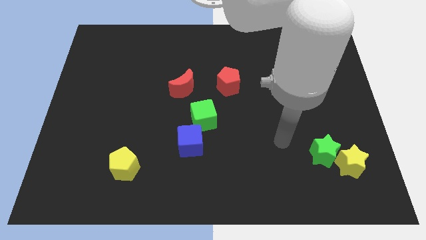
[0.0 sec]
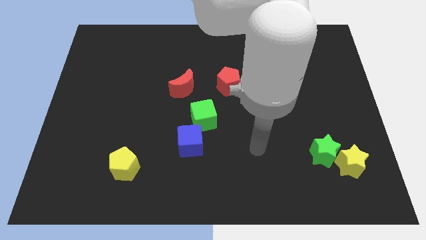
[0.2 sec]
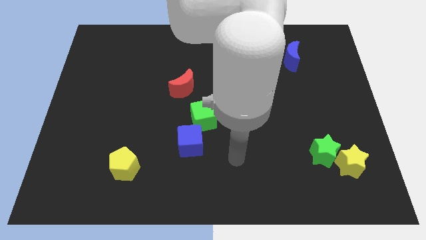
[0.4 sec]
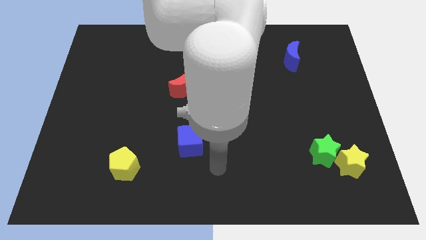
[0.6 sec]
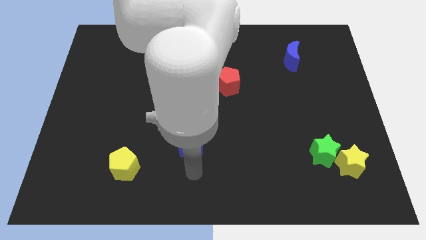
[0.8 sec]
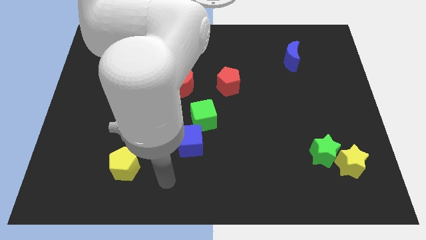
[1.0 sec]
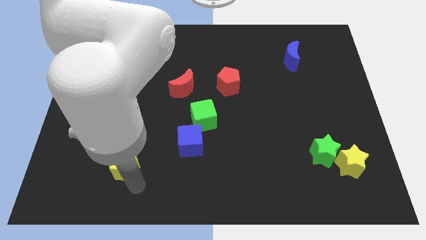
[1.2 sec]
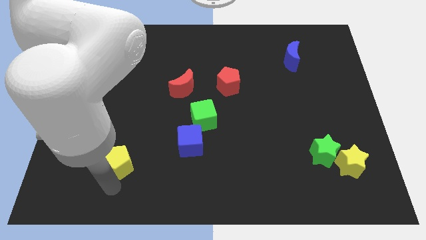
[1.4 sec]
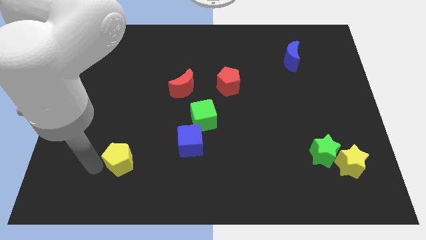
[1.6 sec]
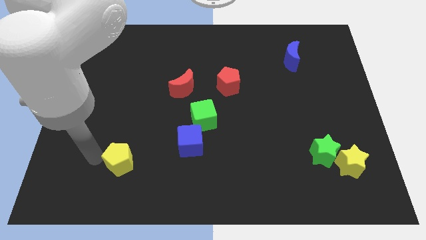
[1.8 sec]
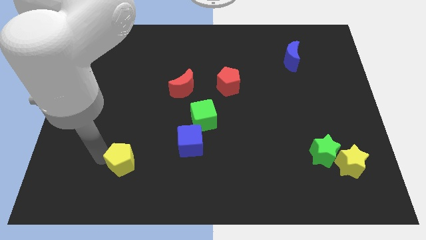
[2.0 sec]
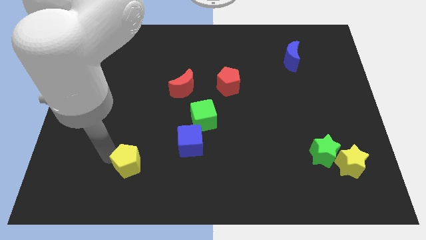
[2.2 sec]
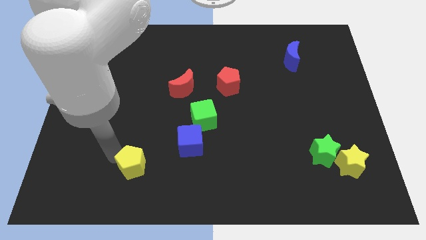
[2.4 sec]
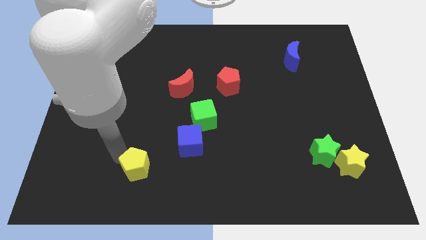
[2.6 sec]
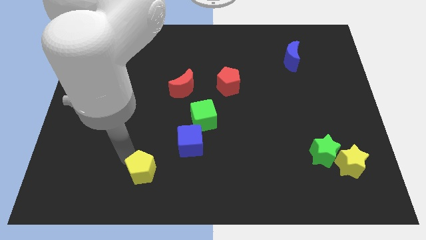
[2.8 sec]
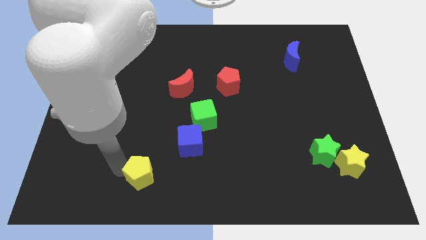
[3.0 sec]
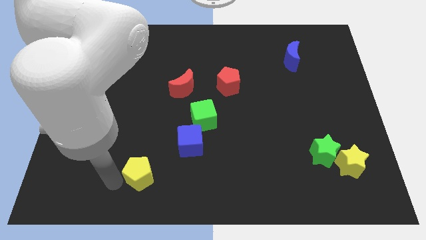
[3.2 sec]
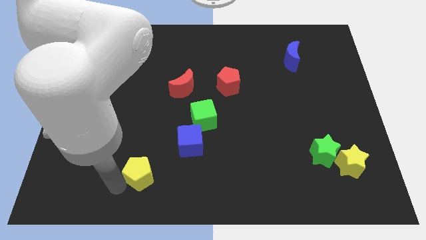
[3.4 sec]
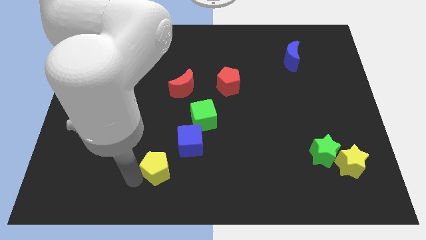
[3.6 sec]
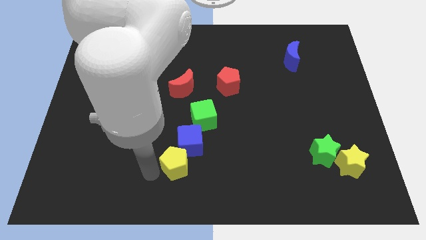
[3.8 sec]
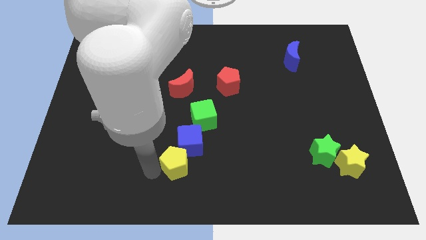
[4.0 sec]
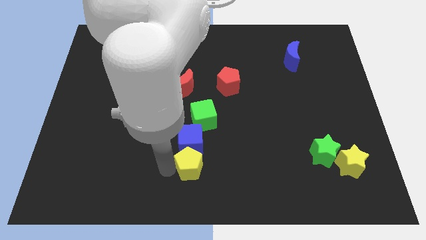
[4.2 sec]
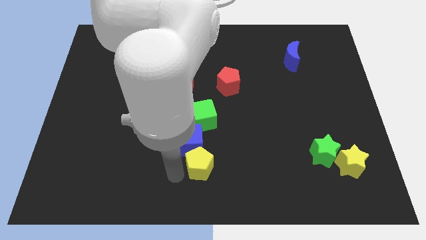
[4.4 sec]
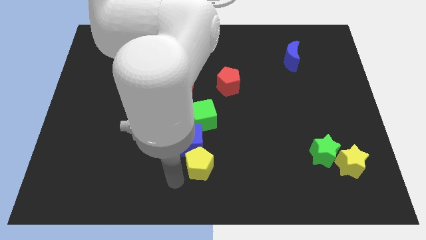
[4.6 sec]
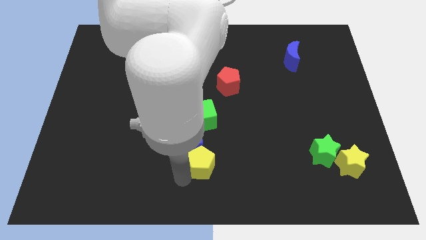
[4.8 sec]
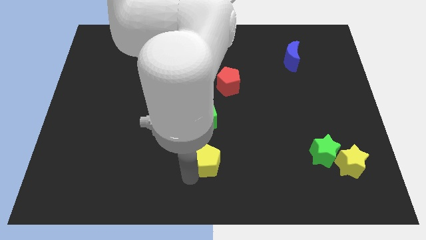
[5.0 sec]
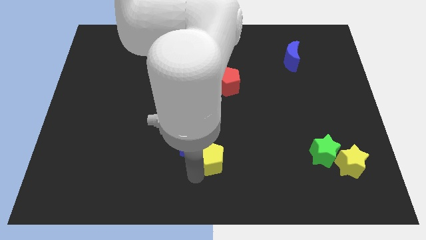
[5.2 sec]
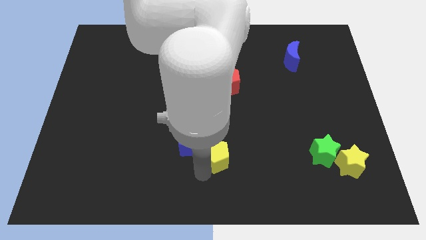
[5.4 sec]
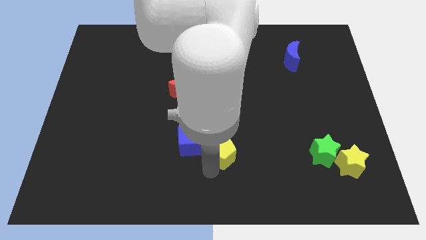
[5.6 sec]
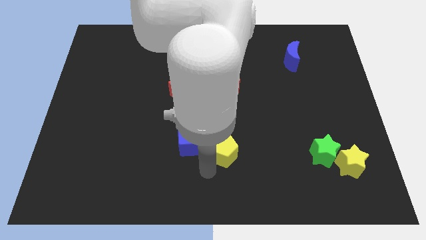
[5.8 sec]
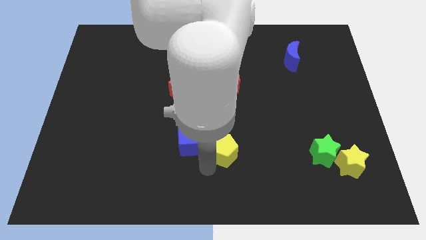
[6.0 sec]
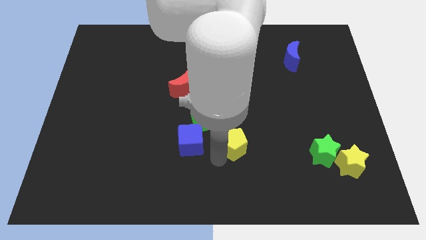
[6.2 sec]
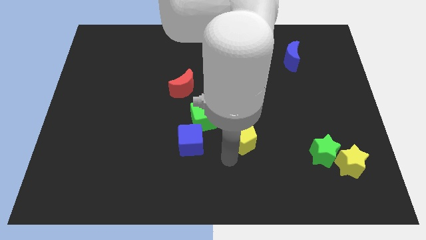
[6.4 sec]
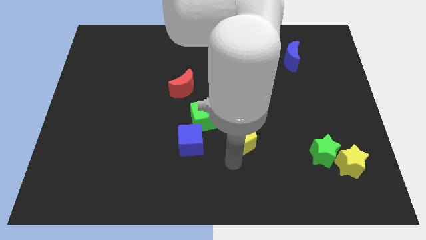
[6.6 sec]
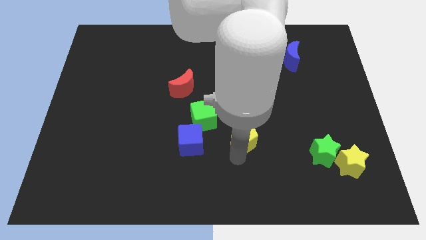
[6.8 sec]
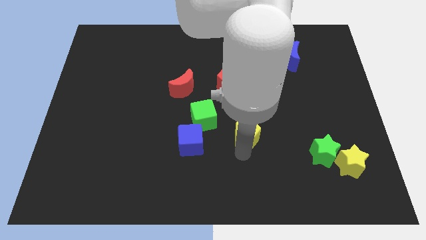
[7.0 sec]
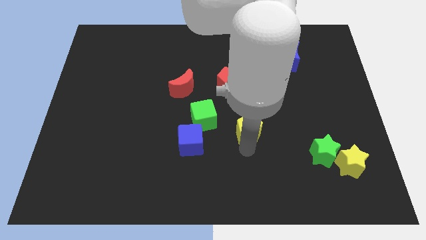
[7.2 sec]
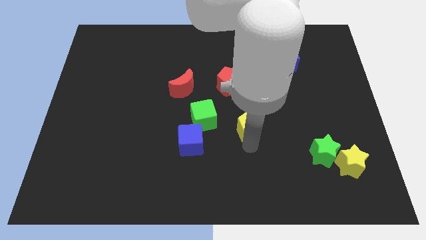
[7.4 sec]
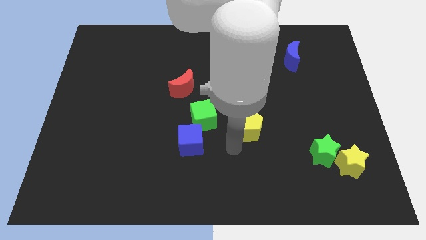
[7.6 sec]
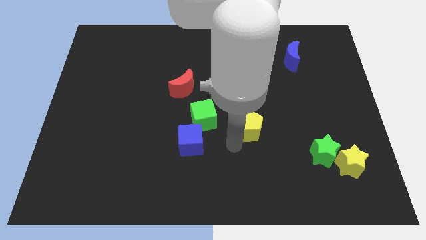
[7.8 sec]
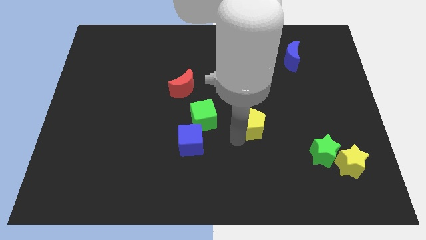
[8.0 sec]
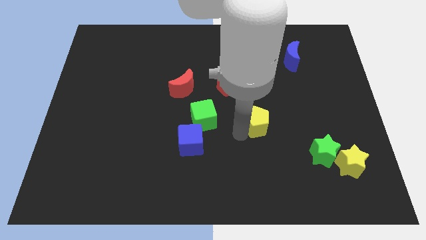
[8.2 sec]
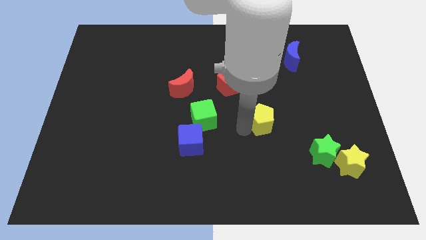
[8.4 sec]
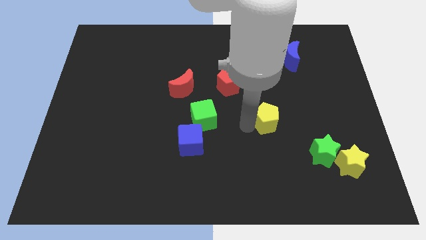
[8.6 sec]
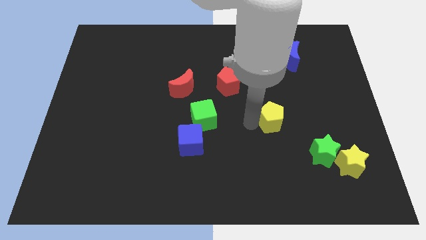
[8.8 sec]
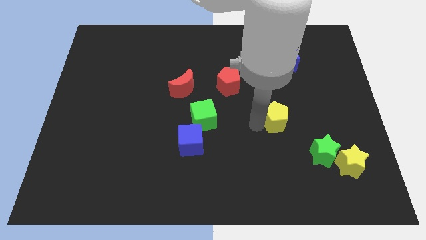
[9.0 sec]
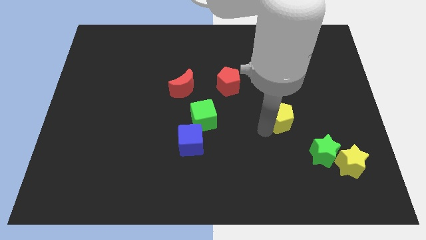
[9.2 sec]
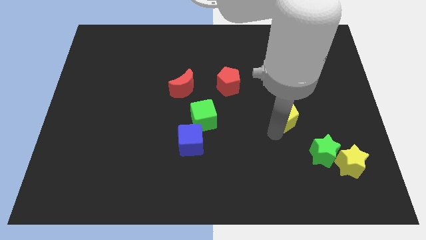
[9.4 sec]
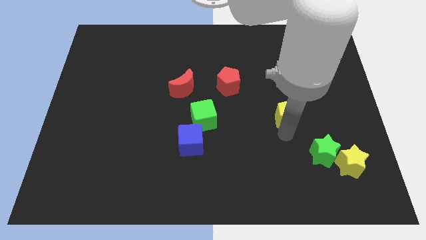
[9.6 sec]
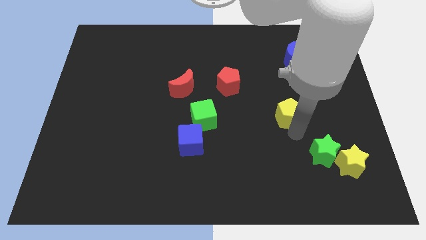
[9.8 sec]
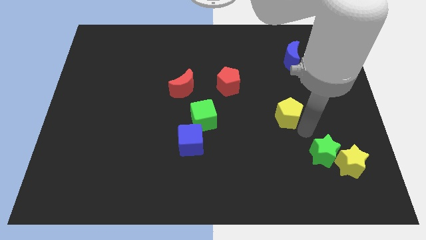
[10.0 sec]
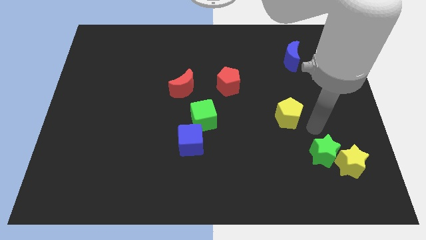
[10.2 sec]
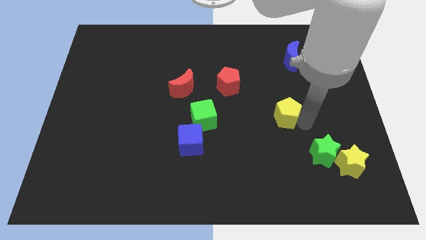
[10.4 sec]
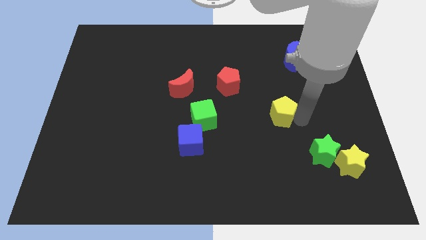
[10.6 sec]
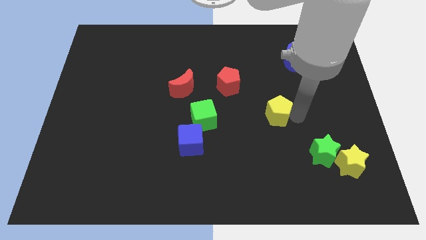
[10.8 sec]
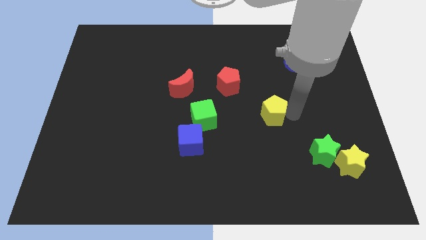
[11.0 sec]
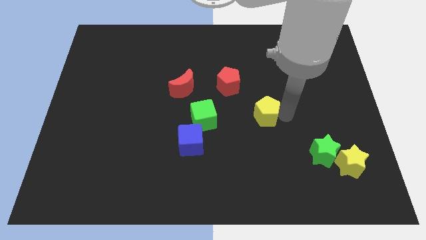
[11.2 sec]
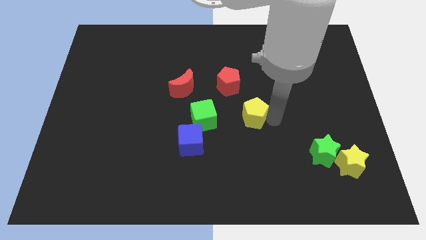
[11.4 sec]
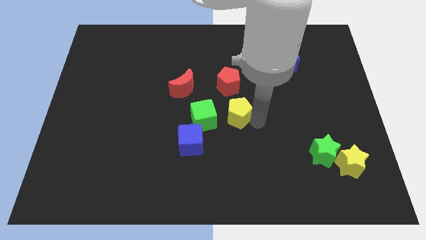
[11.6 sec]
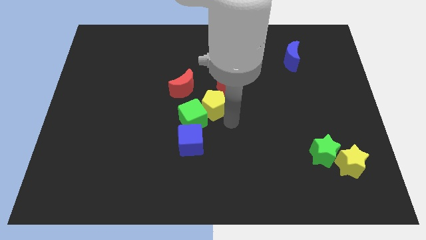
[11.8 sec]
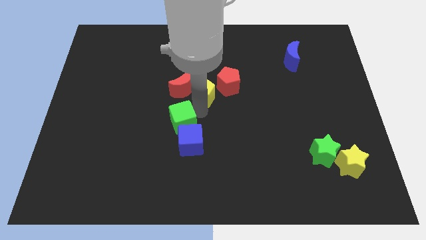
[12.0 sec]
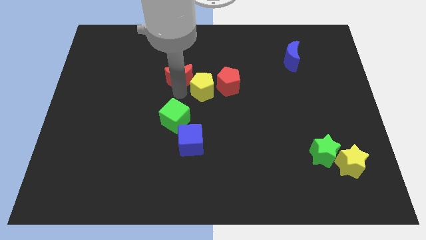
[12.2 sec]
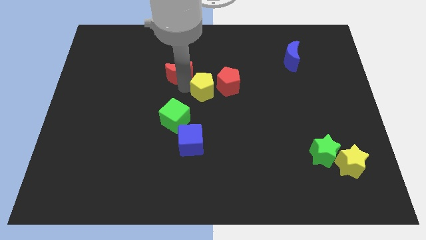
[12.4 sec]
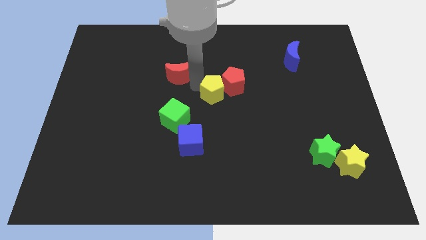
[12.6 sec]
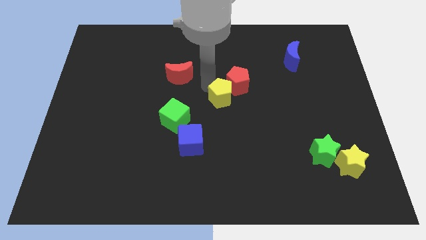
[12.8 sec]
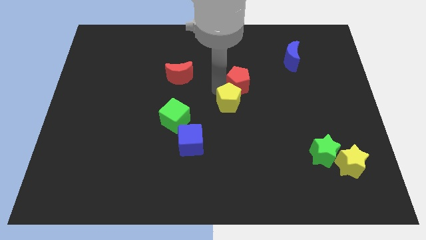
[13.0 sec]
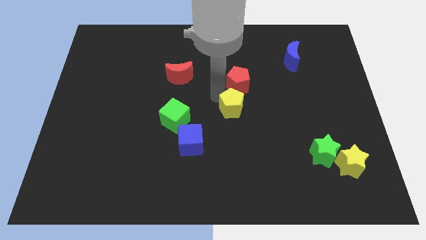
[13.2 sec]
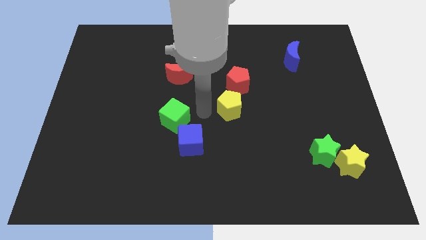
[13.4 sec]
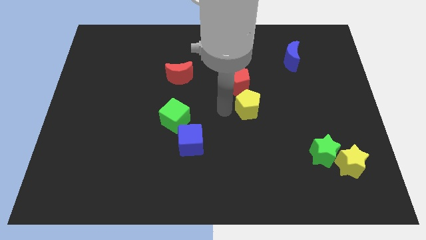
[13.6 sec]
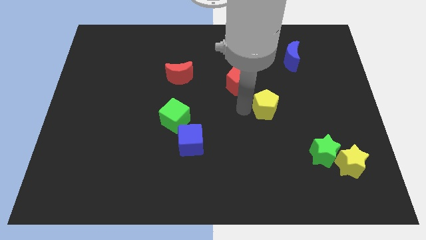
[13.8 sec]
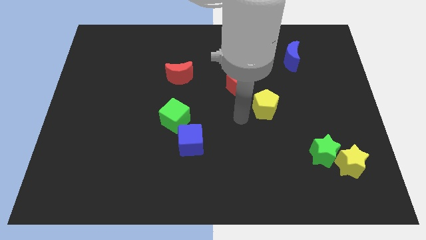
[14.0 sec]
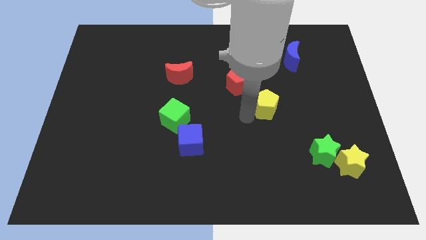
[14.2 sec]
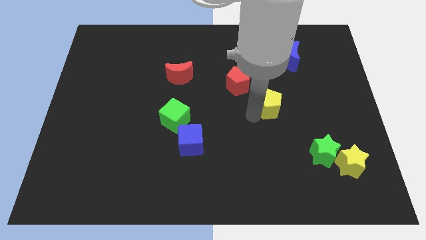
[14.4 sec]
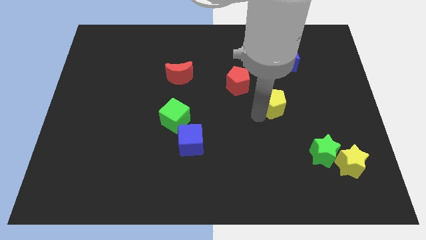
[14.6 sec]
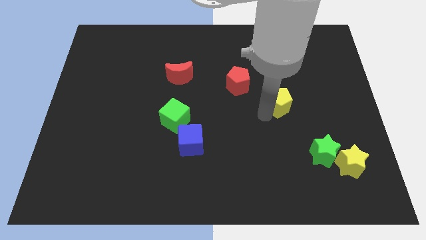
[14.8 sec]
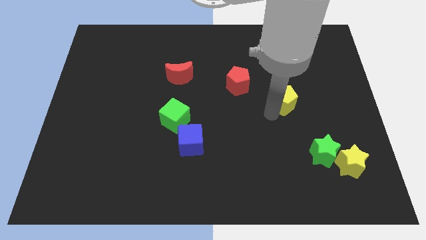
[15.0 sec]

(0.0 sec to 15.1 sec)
move the yellow pentagon to the bottom of the blue moon
